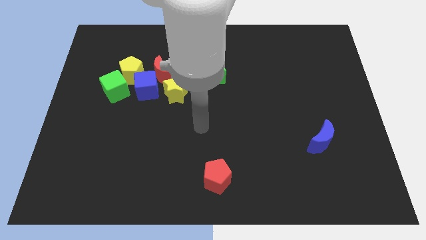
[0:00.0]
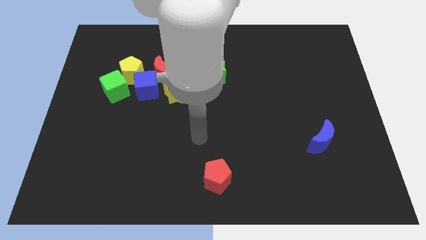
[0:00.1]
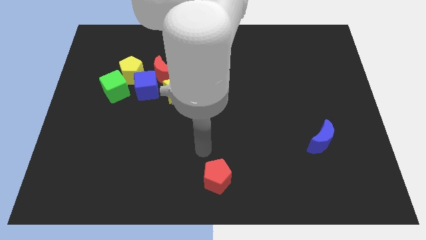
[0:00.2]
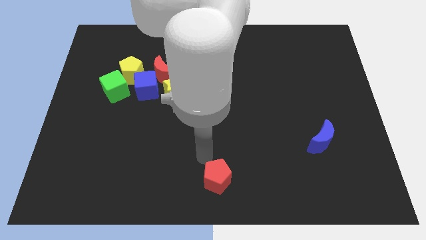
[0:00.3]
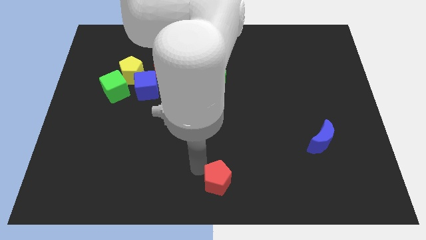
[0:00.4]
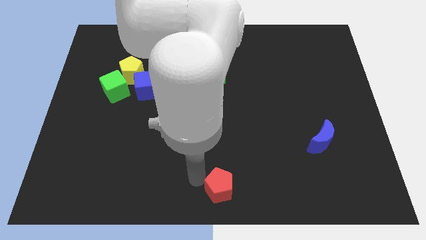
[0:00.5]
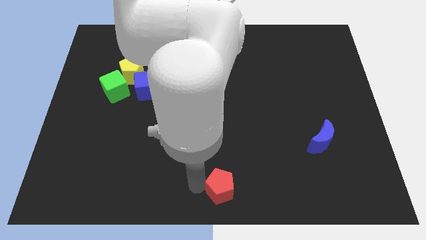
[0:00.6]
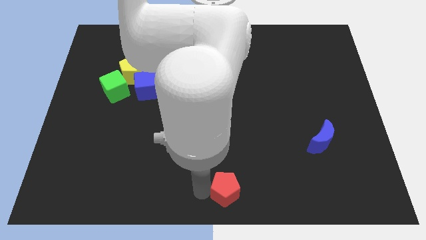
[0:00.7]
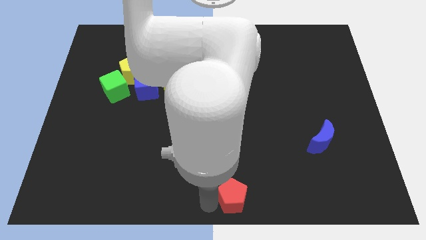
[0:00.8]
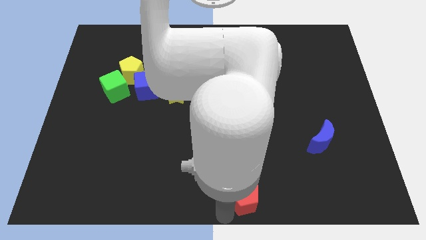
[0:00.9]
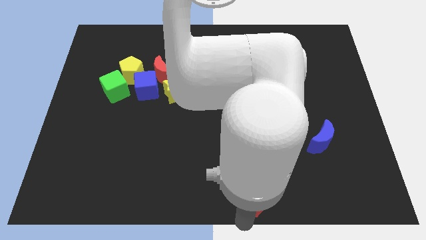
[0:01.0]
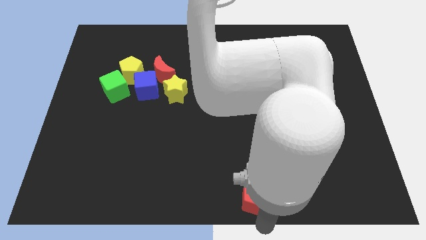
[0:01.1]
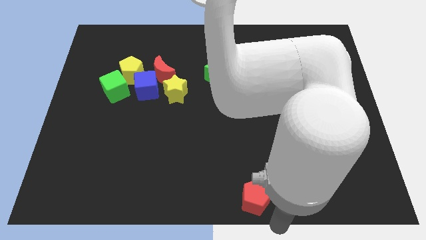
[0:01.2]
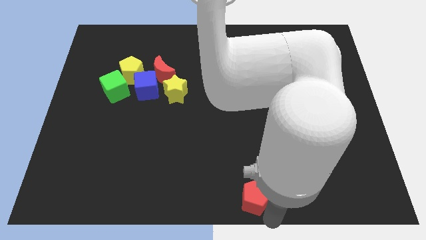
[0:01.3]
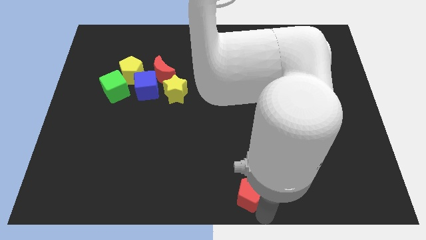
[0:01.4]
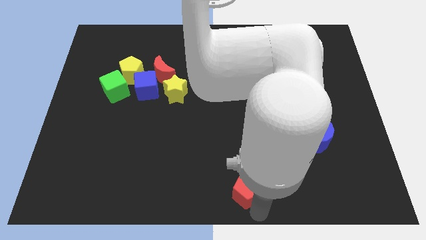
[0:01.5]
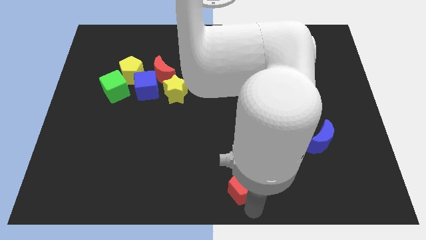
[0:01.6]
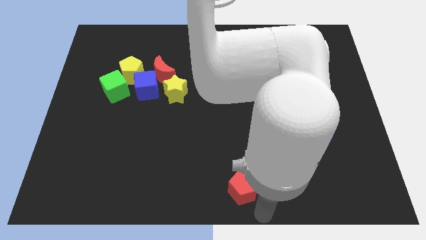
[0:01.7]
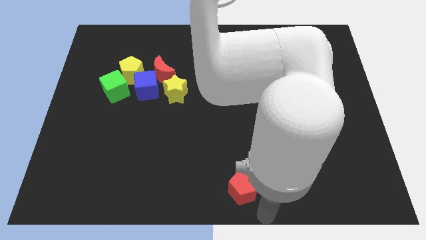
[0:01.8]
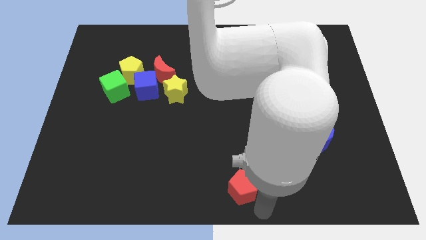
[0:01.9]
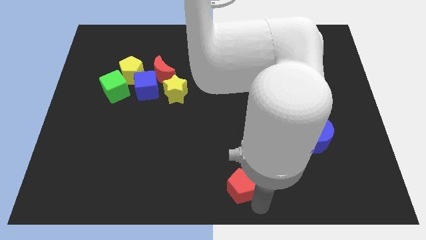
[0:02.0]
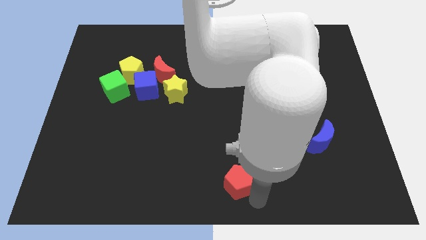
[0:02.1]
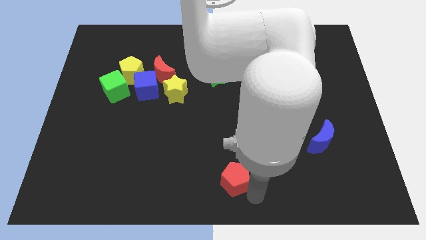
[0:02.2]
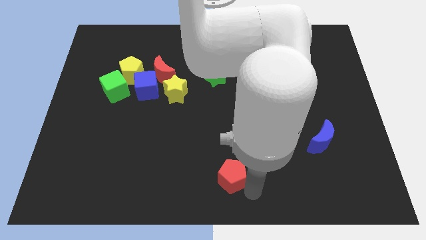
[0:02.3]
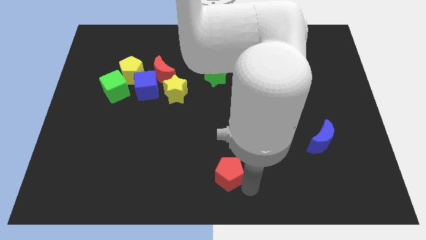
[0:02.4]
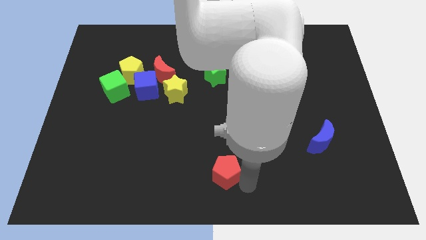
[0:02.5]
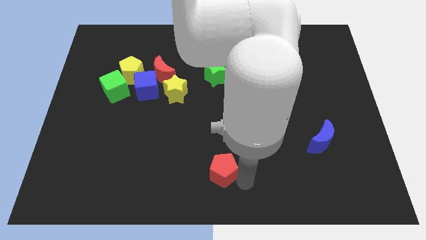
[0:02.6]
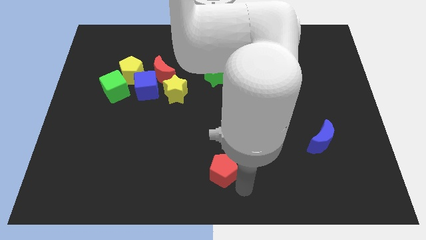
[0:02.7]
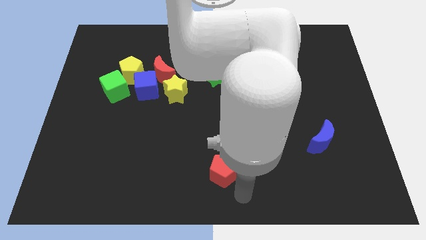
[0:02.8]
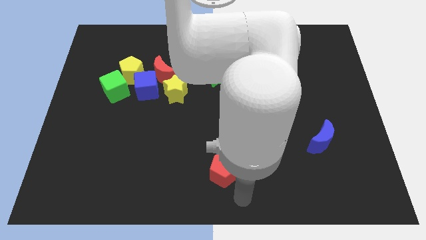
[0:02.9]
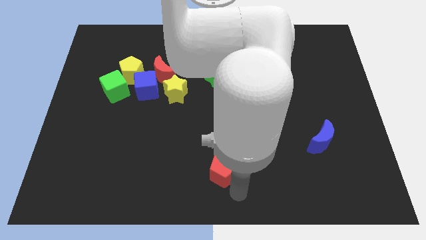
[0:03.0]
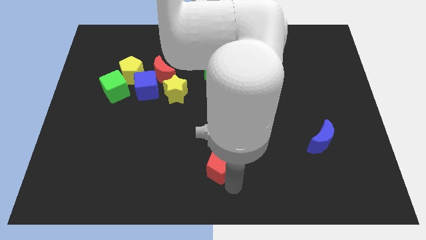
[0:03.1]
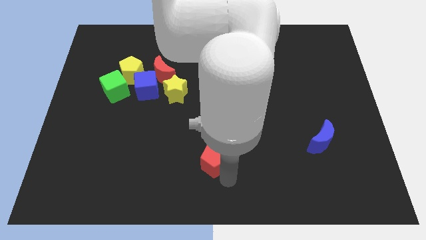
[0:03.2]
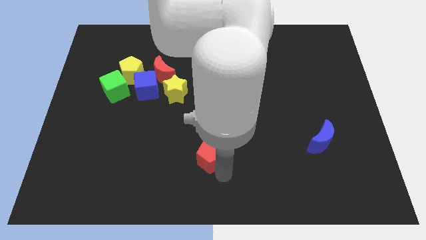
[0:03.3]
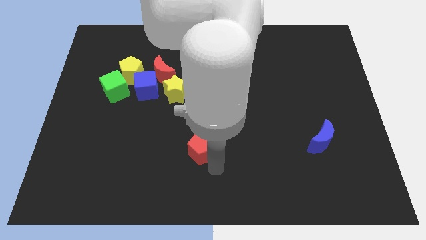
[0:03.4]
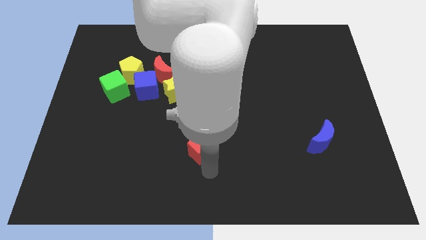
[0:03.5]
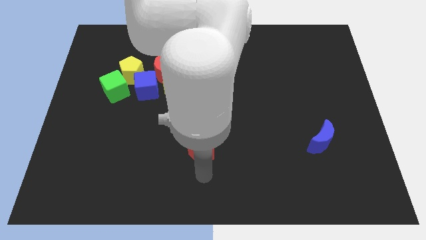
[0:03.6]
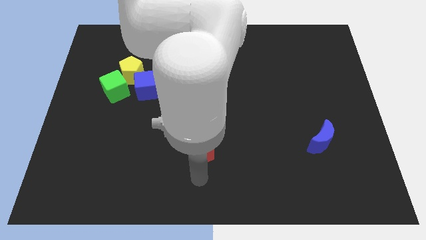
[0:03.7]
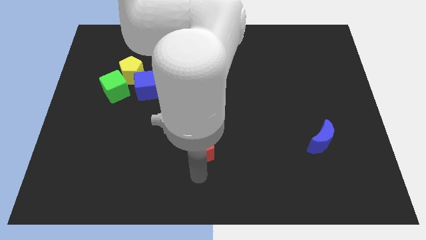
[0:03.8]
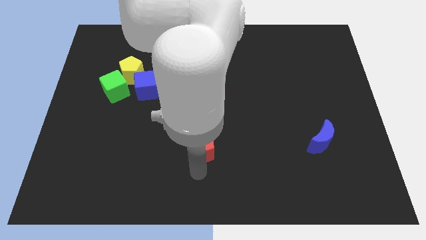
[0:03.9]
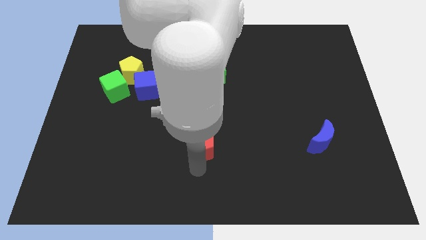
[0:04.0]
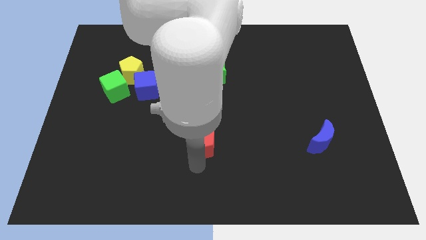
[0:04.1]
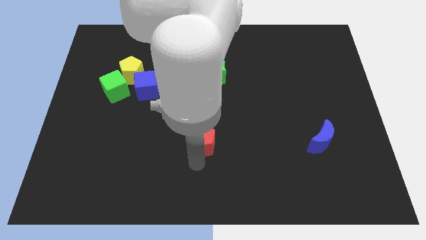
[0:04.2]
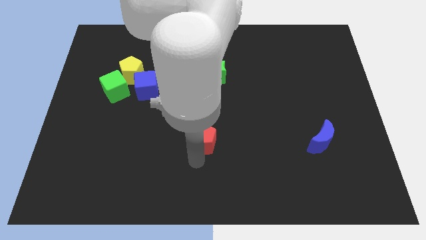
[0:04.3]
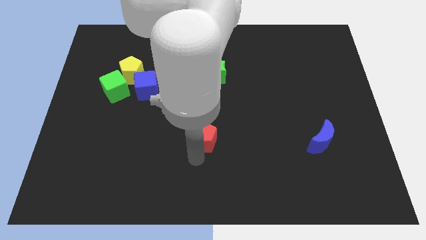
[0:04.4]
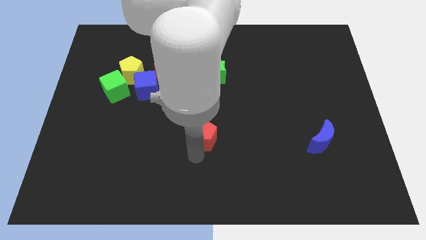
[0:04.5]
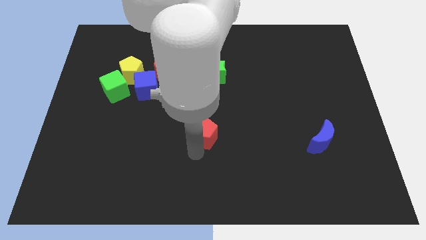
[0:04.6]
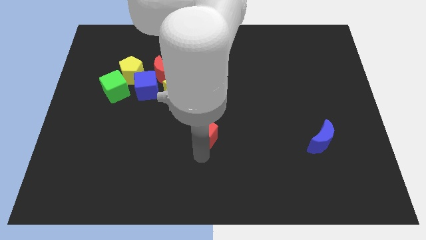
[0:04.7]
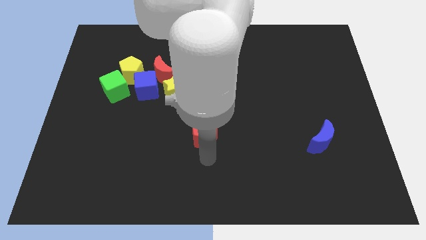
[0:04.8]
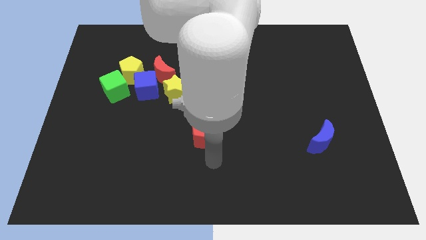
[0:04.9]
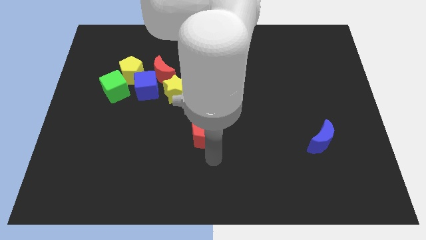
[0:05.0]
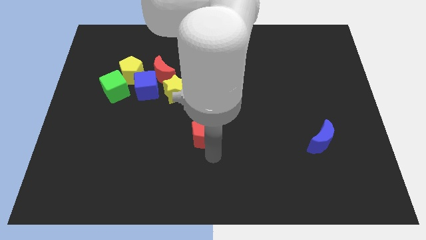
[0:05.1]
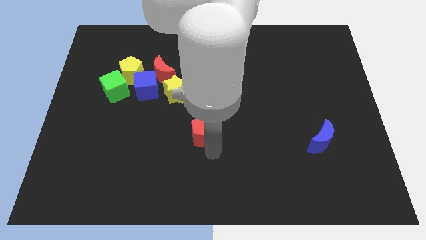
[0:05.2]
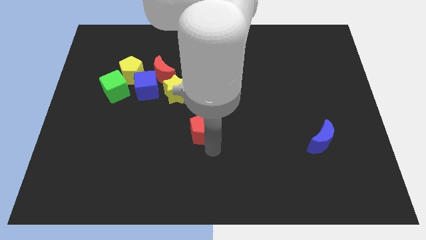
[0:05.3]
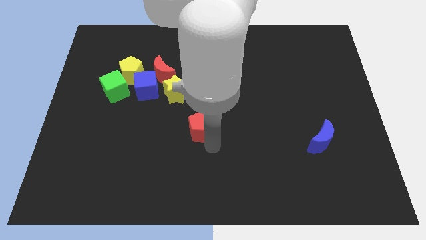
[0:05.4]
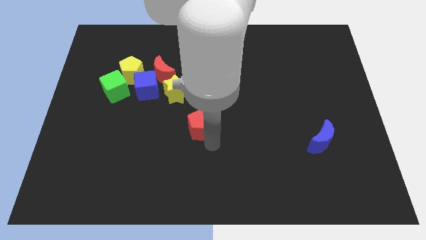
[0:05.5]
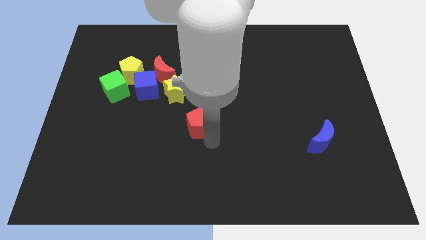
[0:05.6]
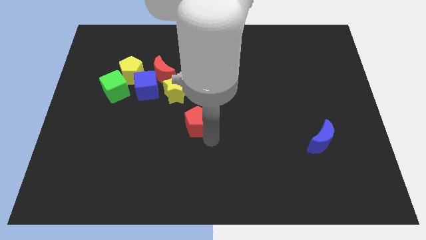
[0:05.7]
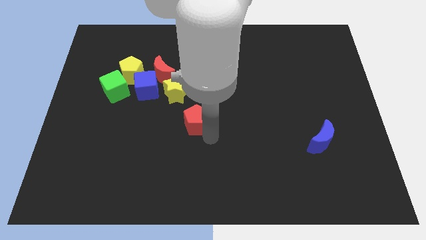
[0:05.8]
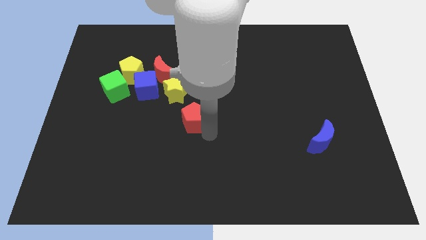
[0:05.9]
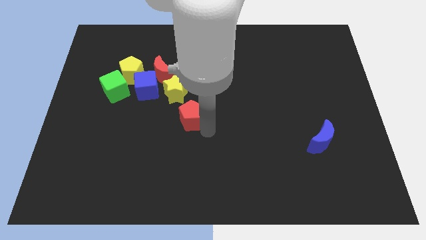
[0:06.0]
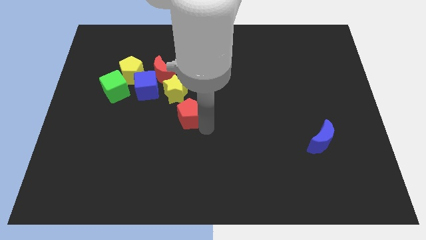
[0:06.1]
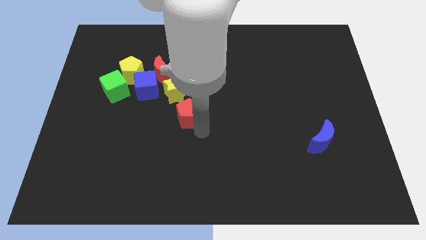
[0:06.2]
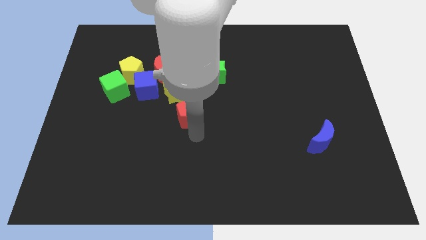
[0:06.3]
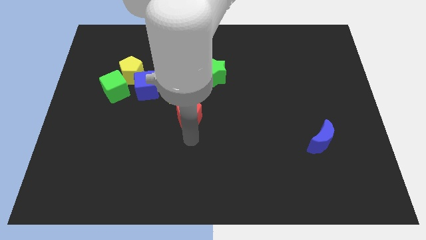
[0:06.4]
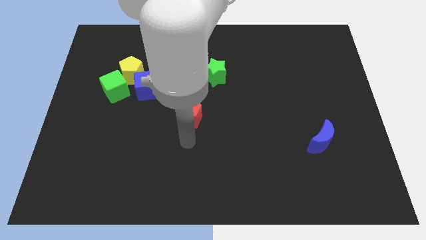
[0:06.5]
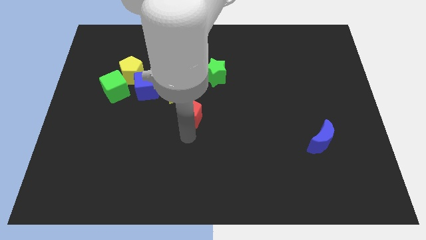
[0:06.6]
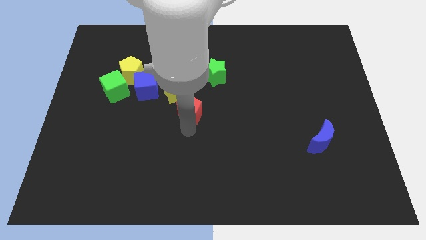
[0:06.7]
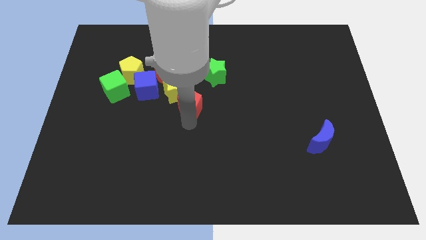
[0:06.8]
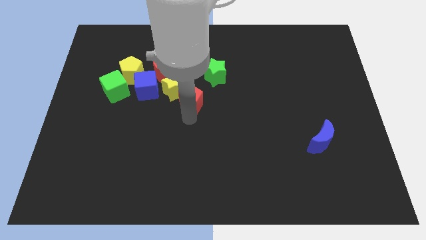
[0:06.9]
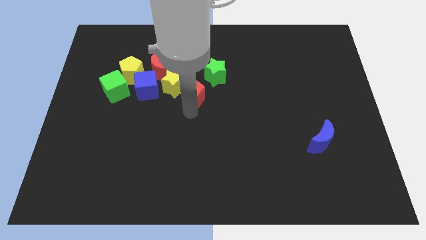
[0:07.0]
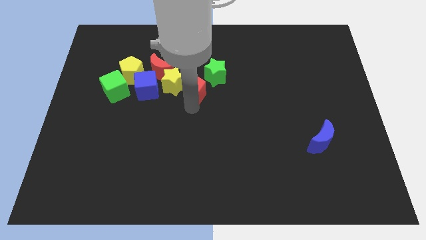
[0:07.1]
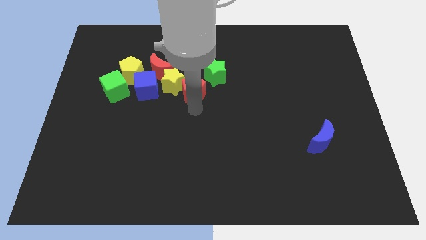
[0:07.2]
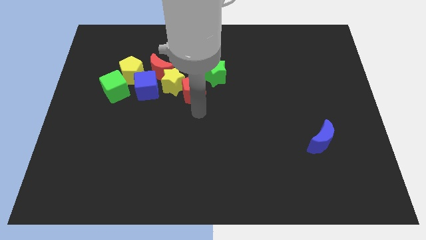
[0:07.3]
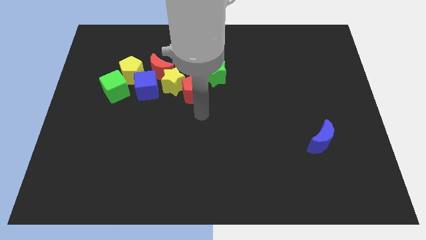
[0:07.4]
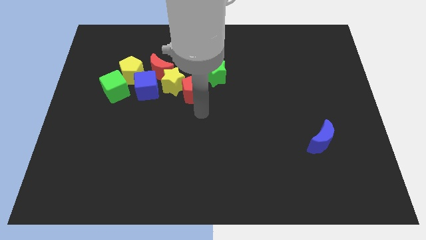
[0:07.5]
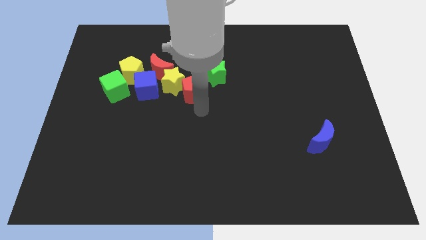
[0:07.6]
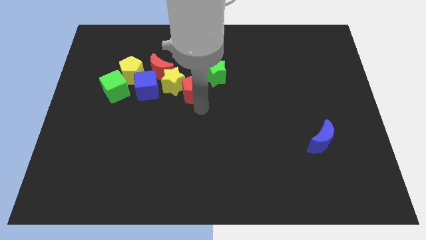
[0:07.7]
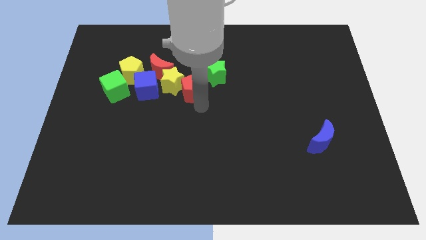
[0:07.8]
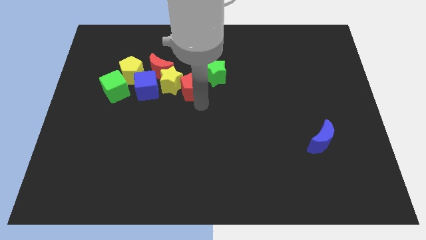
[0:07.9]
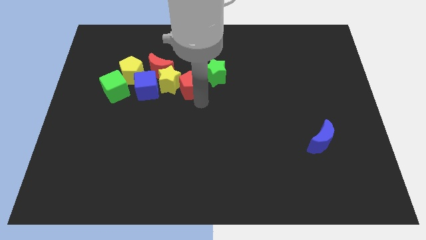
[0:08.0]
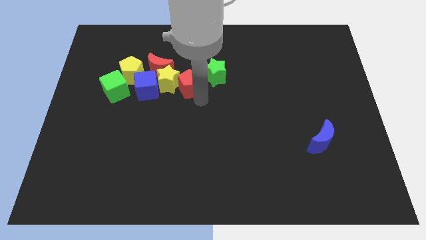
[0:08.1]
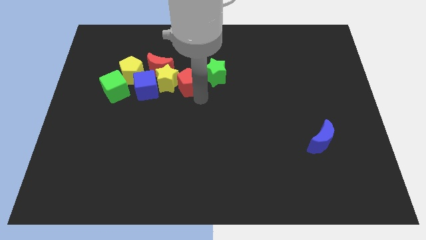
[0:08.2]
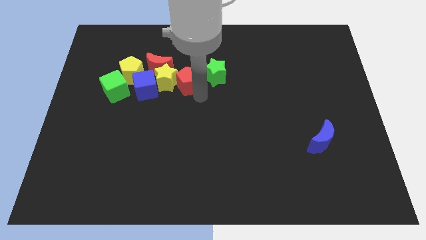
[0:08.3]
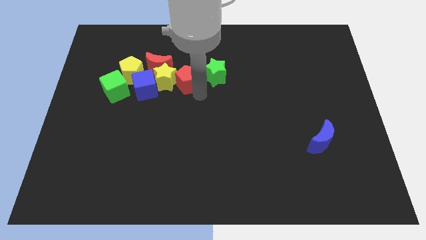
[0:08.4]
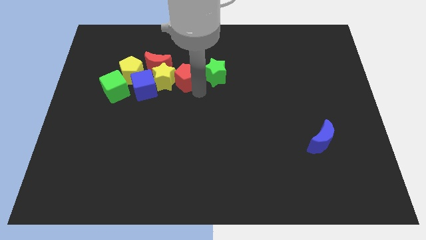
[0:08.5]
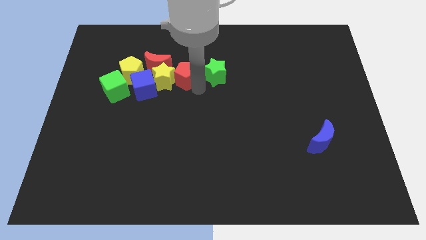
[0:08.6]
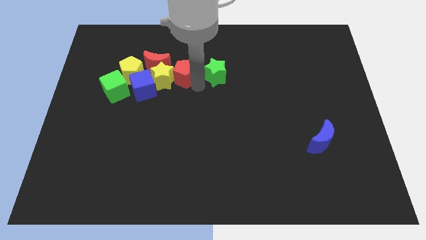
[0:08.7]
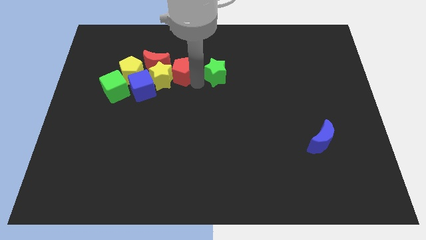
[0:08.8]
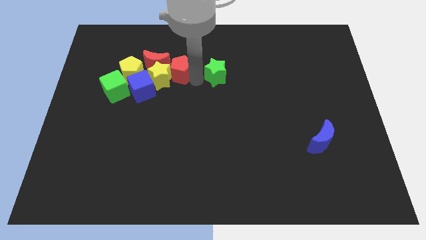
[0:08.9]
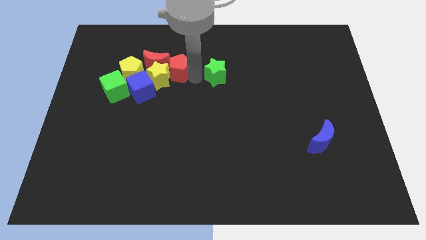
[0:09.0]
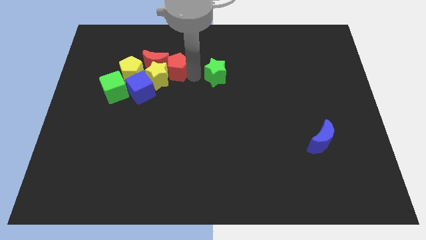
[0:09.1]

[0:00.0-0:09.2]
put the red pentagon close to the red moon
